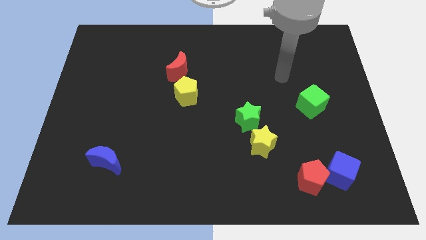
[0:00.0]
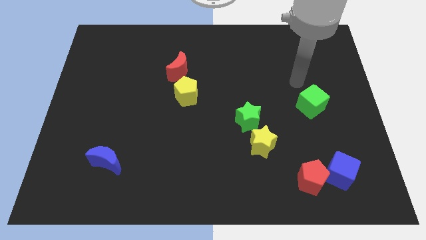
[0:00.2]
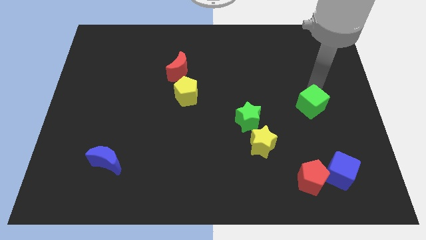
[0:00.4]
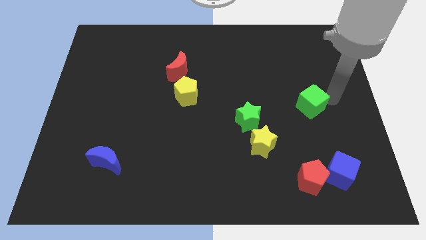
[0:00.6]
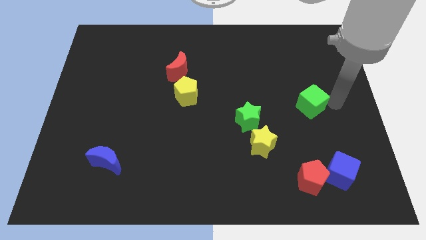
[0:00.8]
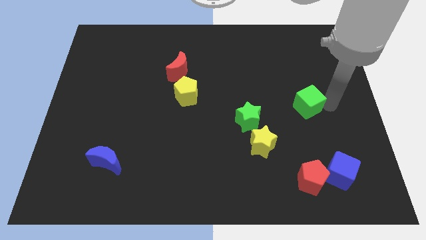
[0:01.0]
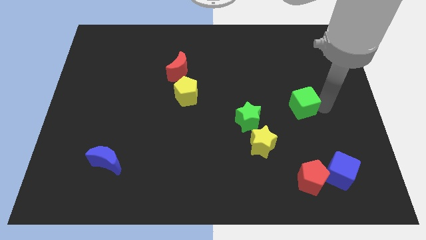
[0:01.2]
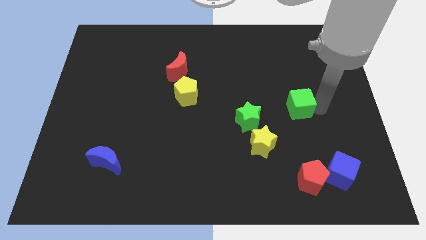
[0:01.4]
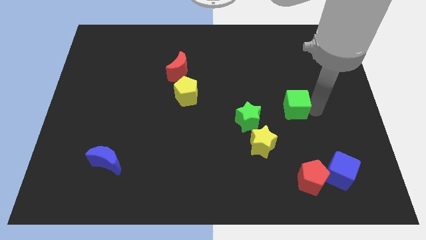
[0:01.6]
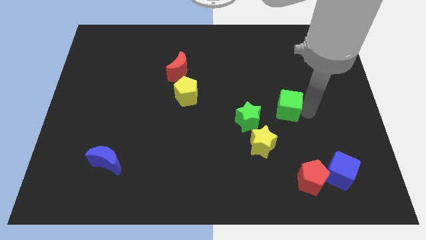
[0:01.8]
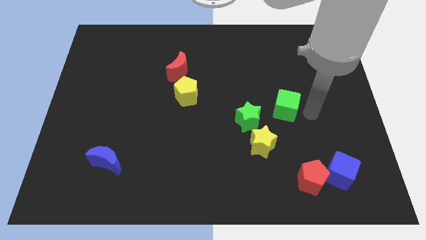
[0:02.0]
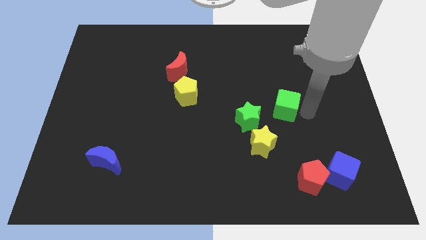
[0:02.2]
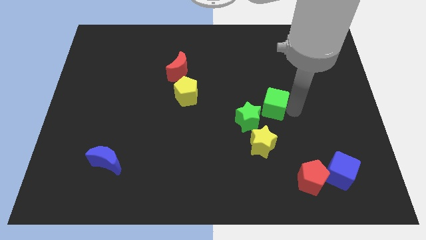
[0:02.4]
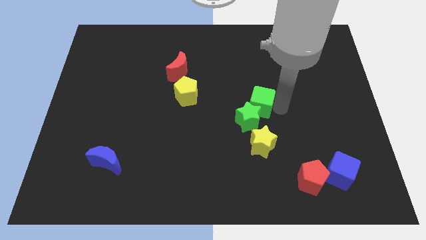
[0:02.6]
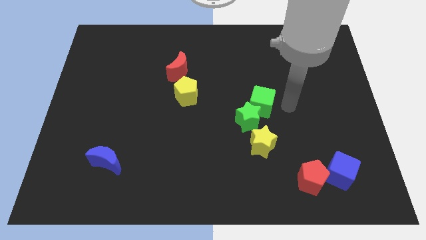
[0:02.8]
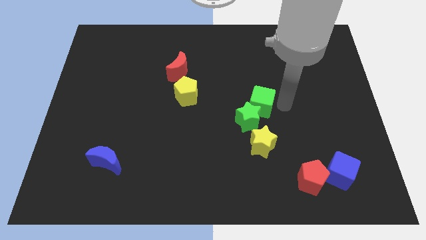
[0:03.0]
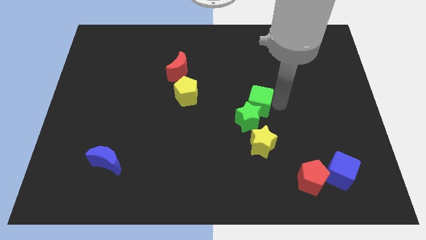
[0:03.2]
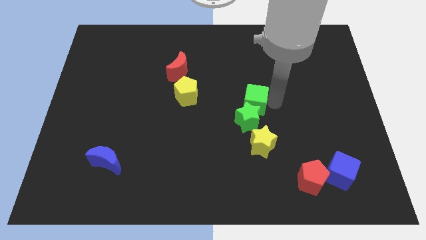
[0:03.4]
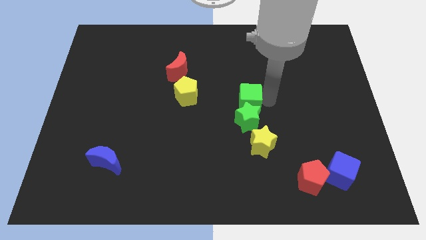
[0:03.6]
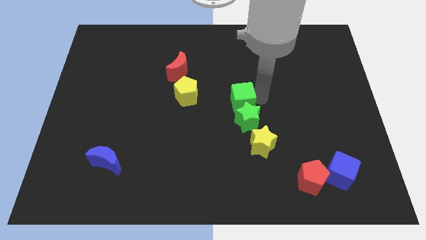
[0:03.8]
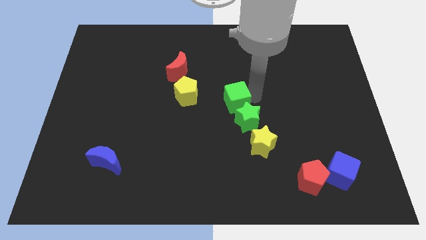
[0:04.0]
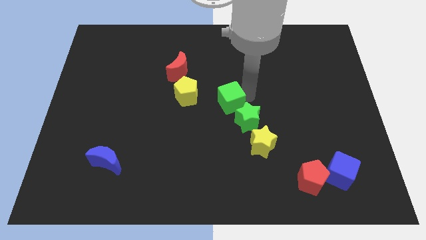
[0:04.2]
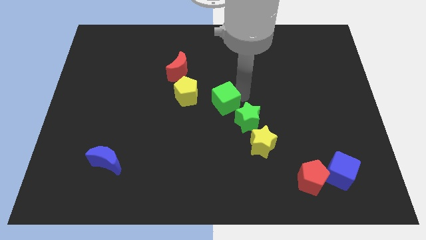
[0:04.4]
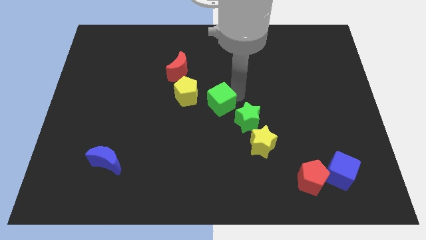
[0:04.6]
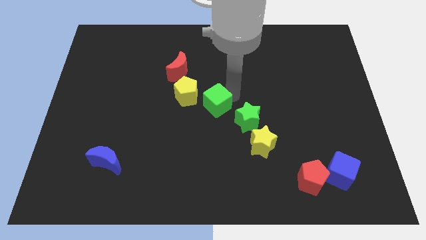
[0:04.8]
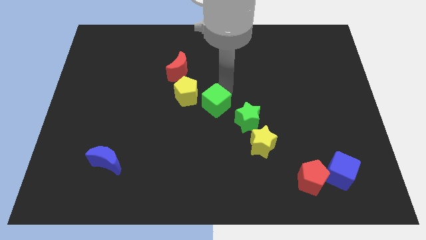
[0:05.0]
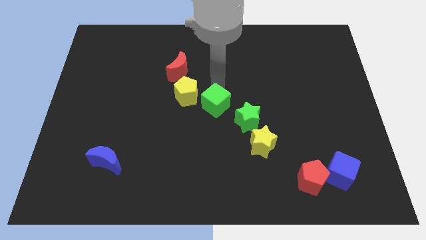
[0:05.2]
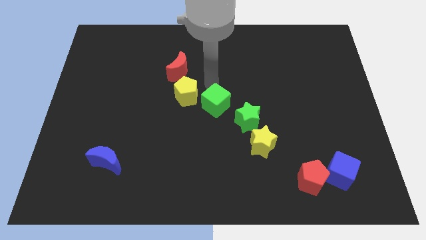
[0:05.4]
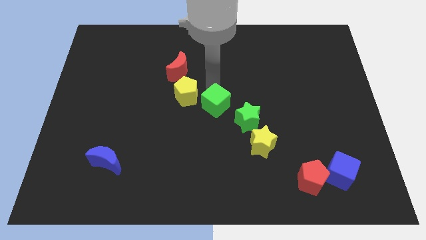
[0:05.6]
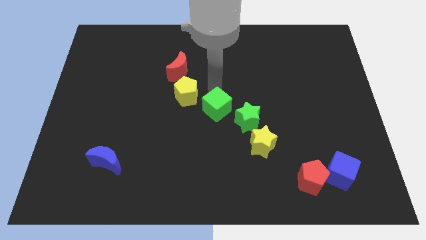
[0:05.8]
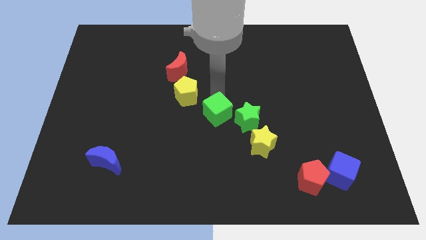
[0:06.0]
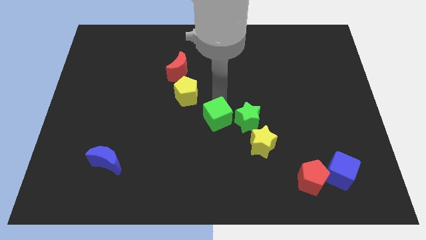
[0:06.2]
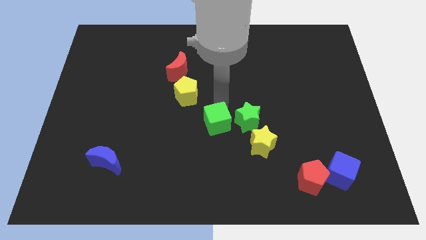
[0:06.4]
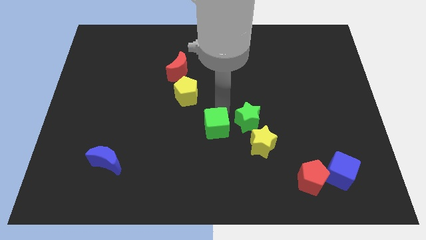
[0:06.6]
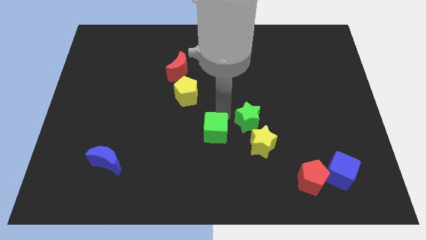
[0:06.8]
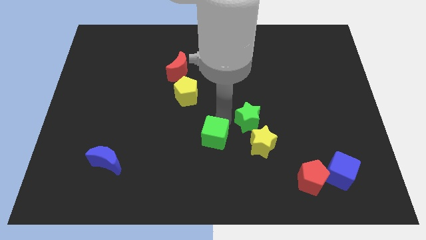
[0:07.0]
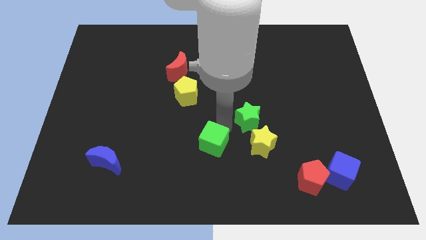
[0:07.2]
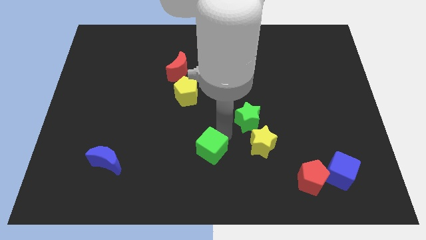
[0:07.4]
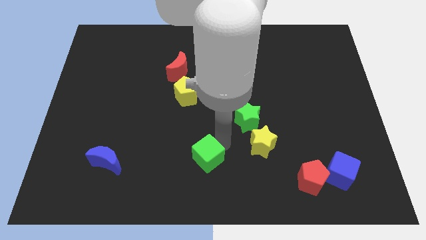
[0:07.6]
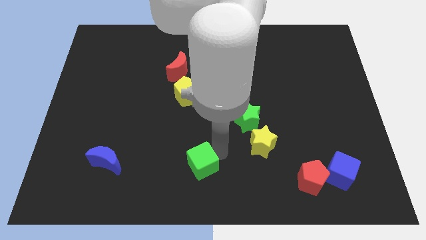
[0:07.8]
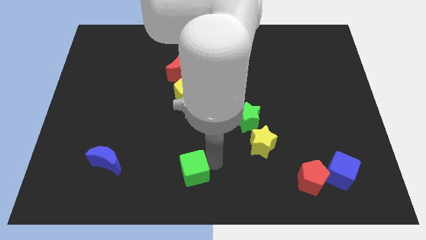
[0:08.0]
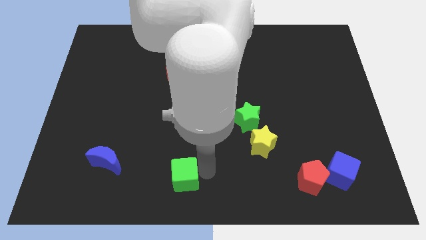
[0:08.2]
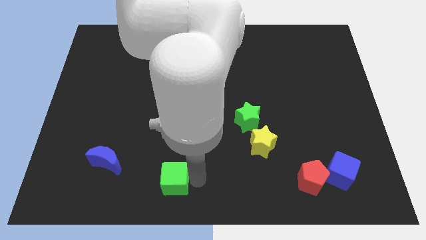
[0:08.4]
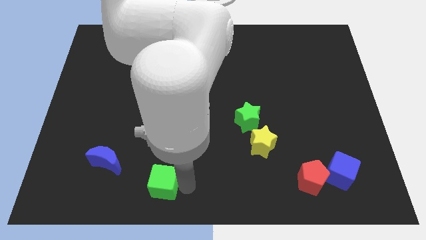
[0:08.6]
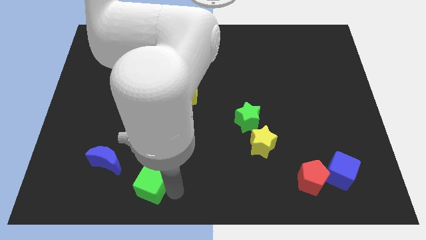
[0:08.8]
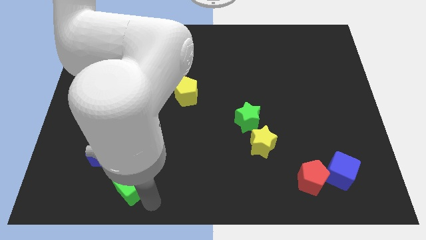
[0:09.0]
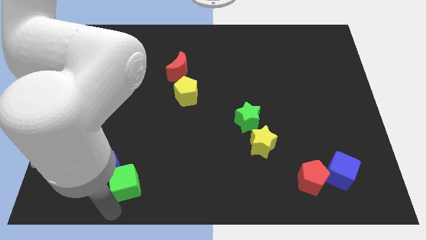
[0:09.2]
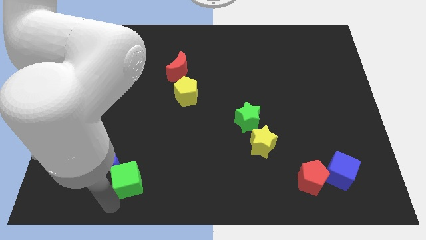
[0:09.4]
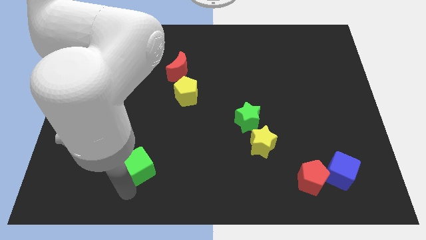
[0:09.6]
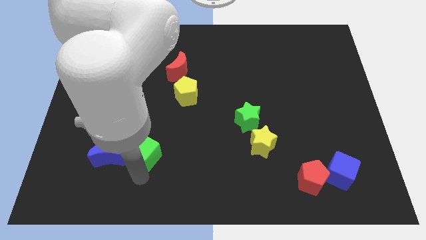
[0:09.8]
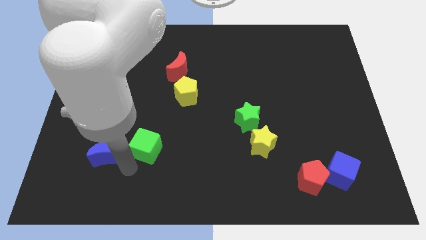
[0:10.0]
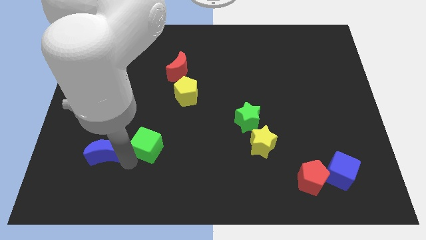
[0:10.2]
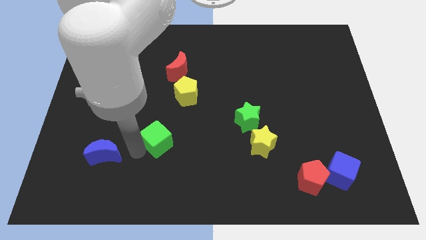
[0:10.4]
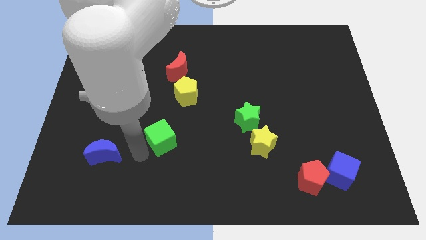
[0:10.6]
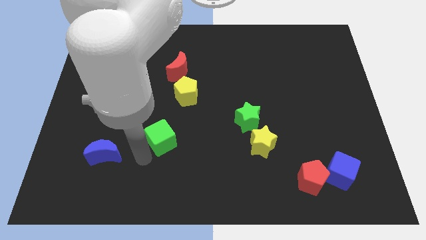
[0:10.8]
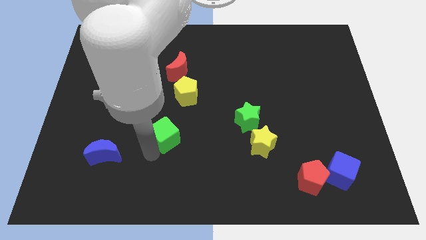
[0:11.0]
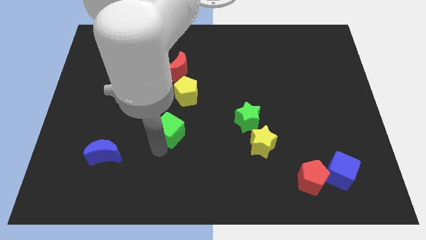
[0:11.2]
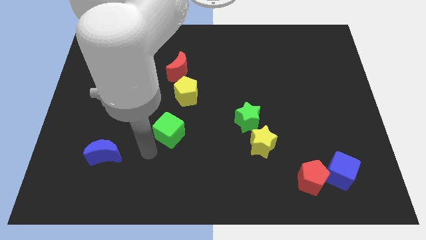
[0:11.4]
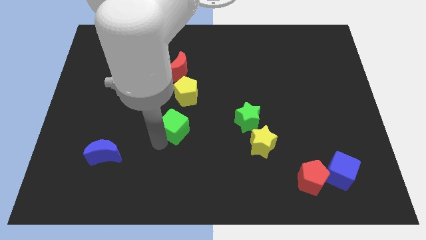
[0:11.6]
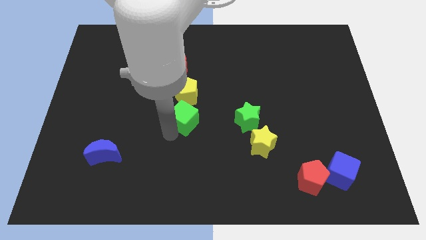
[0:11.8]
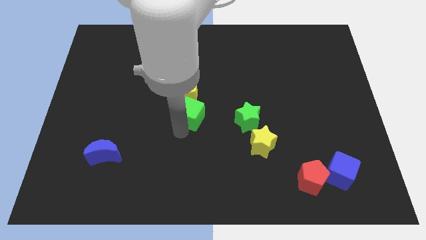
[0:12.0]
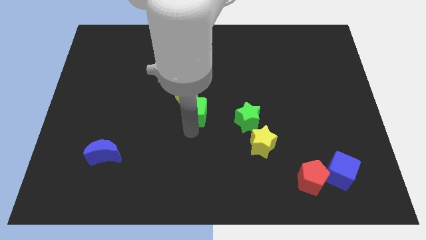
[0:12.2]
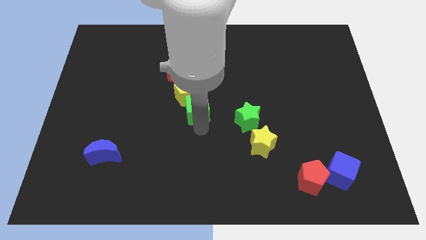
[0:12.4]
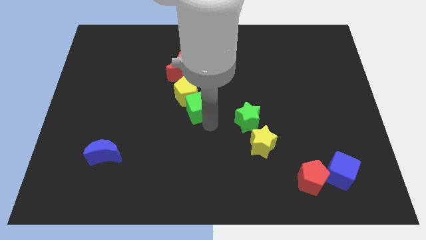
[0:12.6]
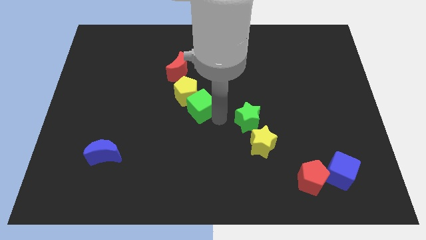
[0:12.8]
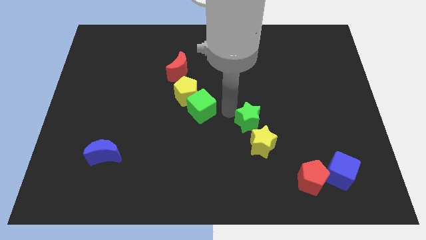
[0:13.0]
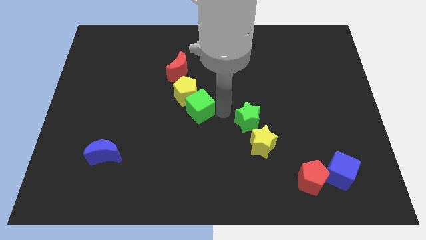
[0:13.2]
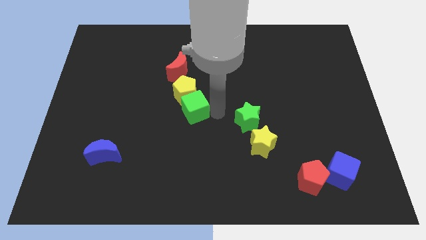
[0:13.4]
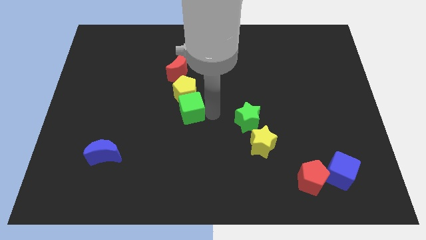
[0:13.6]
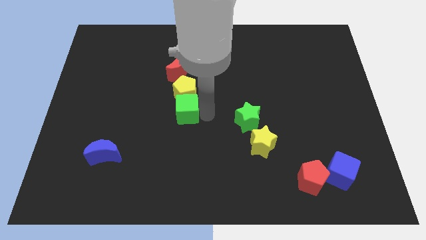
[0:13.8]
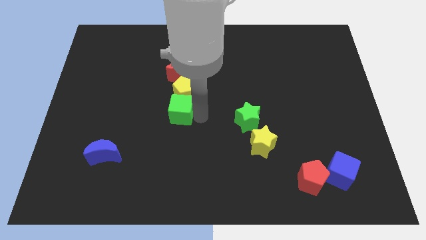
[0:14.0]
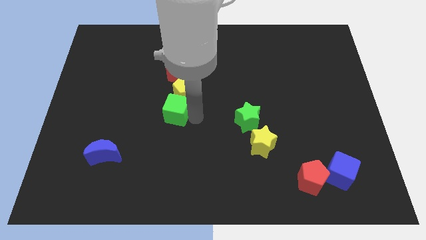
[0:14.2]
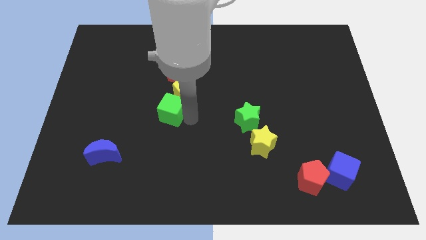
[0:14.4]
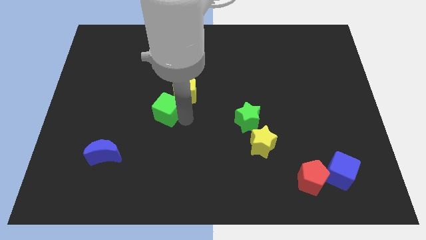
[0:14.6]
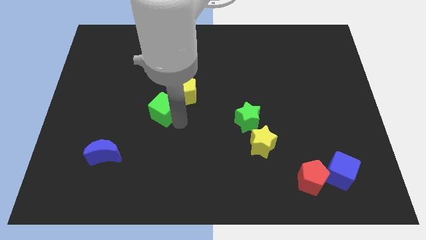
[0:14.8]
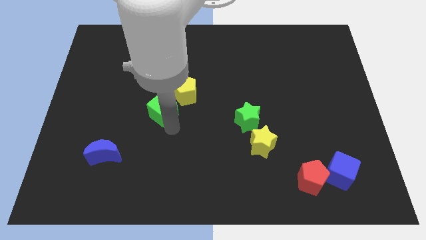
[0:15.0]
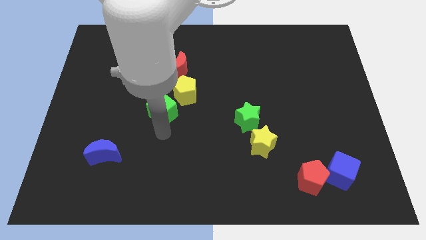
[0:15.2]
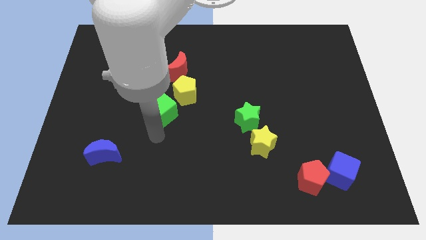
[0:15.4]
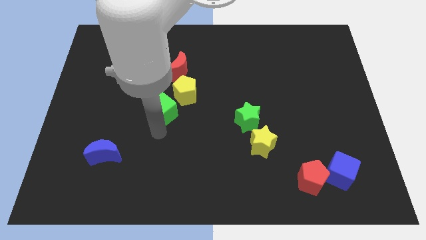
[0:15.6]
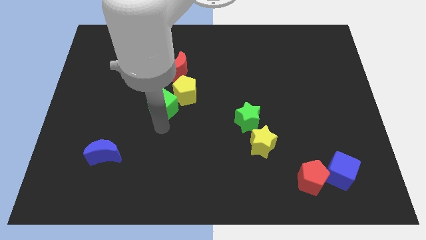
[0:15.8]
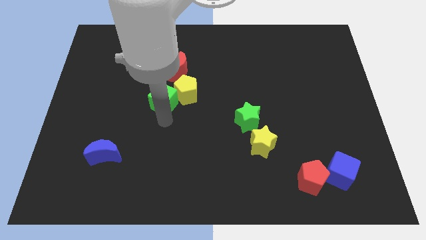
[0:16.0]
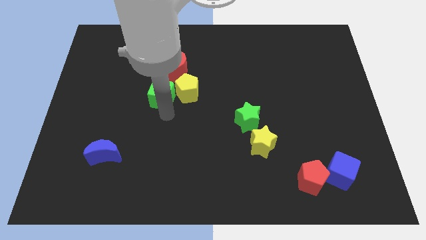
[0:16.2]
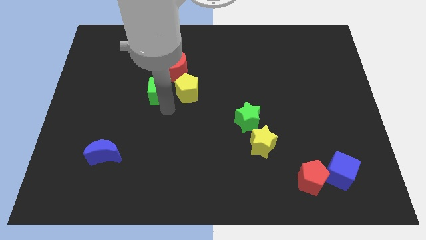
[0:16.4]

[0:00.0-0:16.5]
move the green cube to the top left of the yellow pentagon
